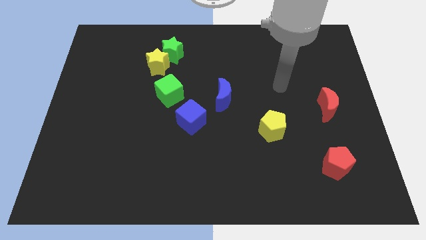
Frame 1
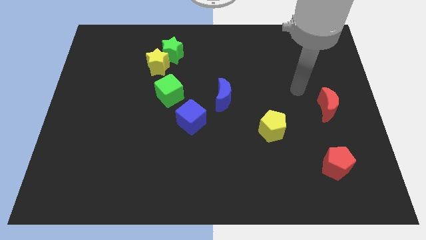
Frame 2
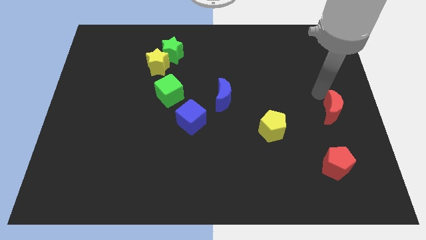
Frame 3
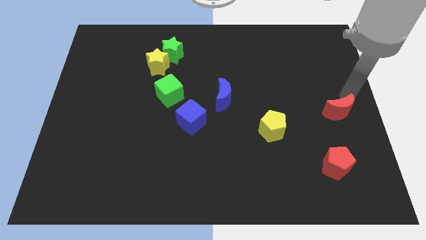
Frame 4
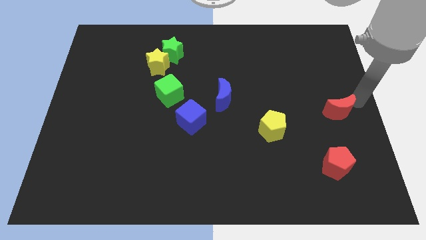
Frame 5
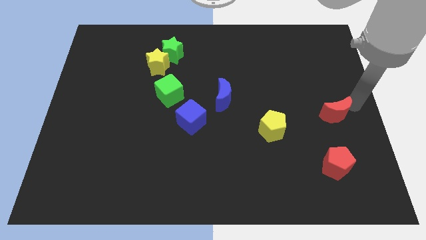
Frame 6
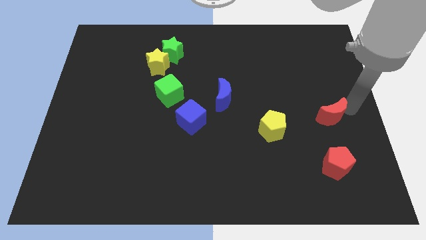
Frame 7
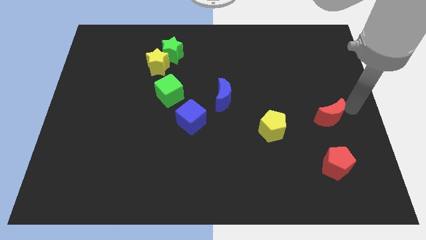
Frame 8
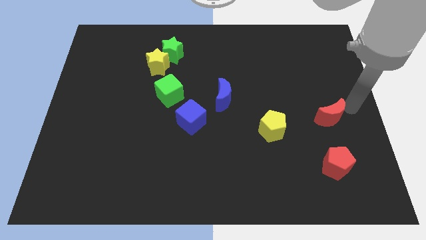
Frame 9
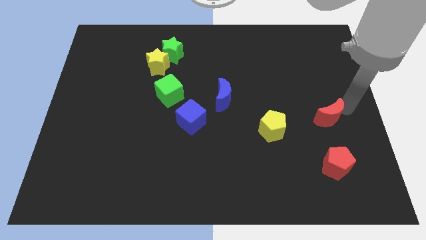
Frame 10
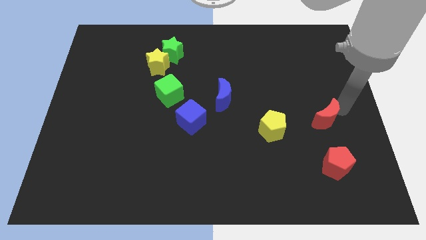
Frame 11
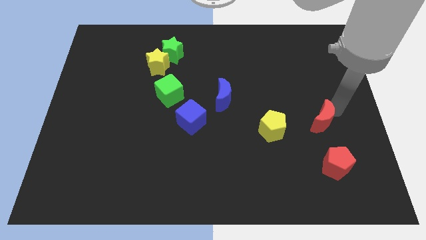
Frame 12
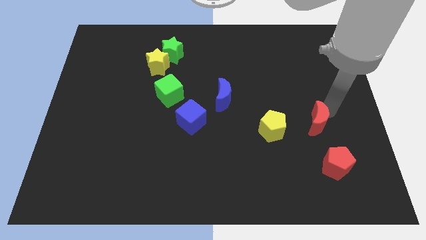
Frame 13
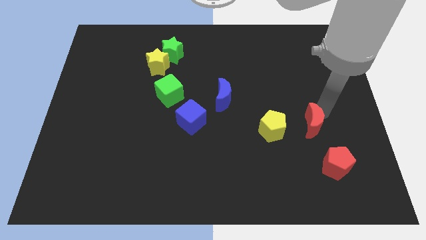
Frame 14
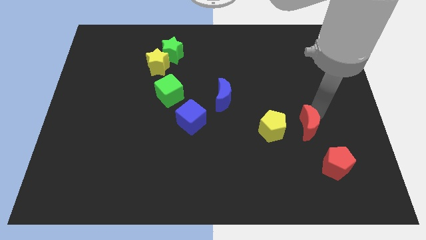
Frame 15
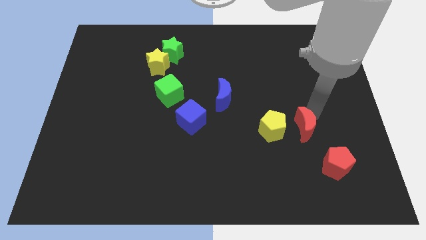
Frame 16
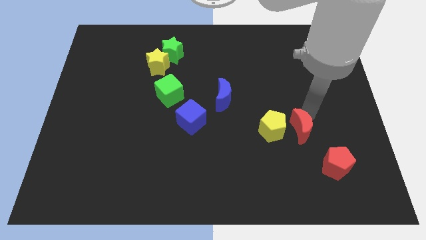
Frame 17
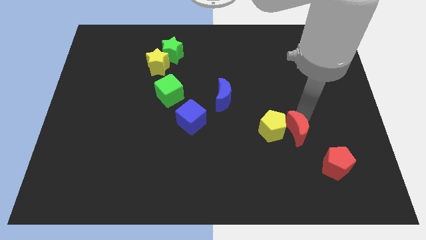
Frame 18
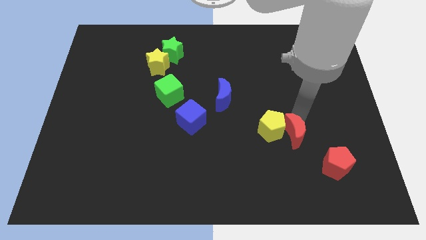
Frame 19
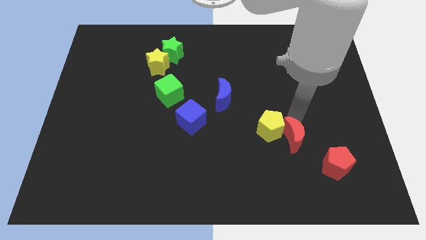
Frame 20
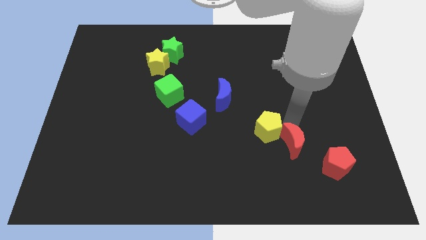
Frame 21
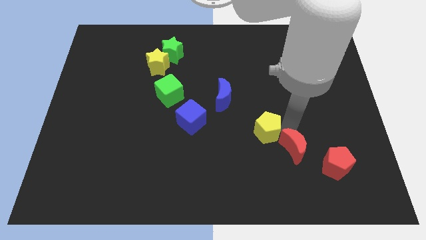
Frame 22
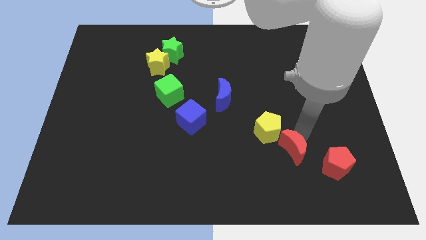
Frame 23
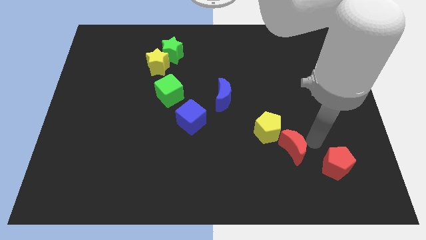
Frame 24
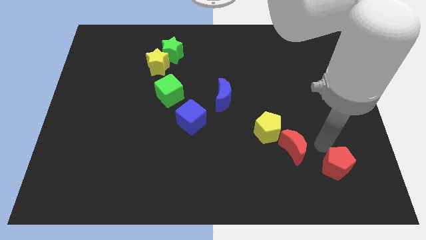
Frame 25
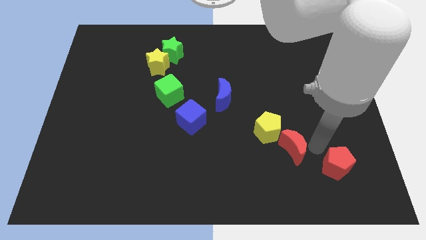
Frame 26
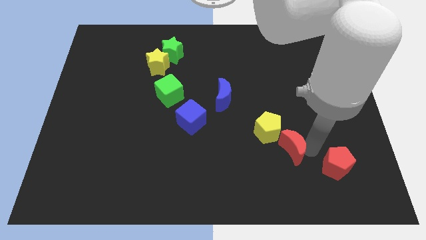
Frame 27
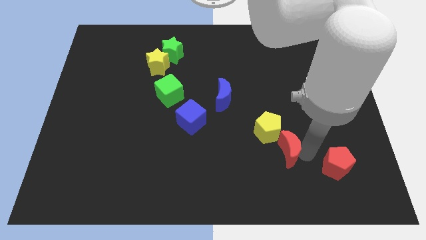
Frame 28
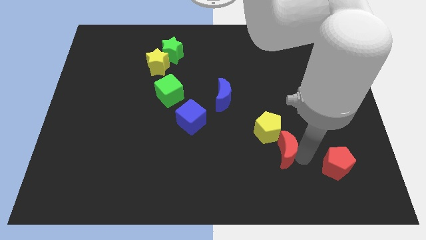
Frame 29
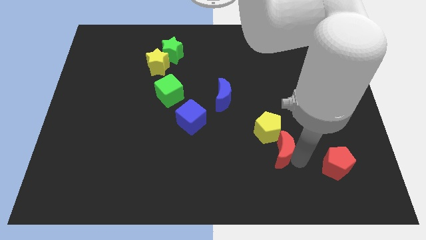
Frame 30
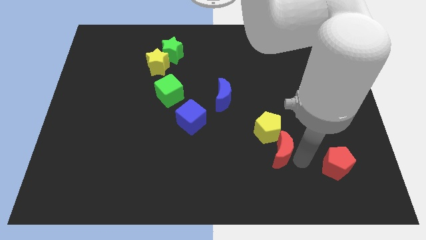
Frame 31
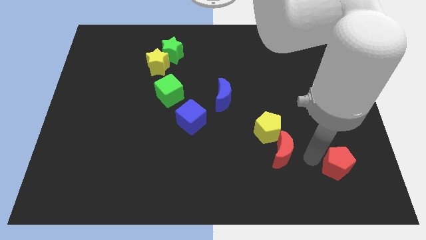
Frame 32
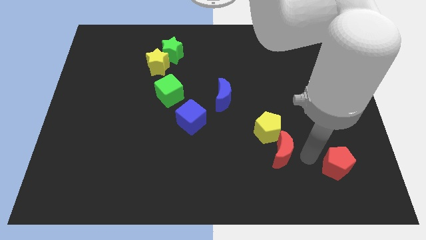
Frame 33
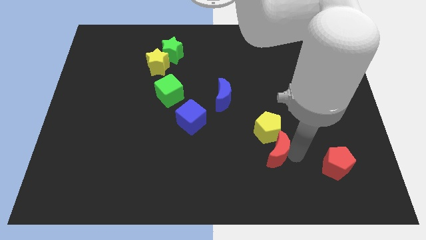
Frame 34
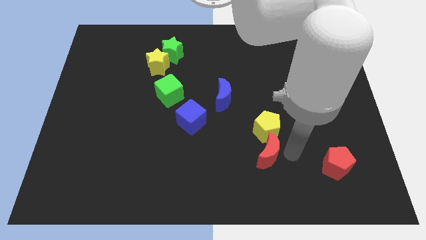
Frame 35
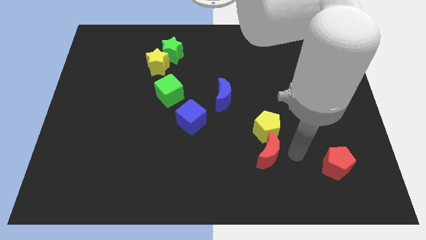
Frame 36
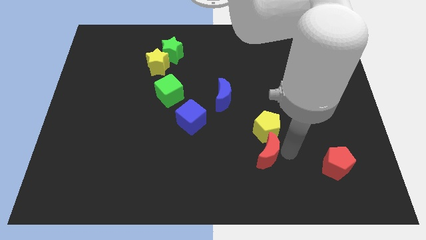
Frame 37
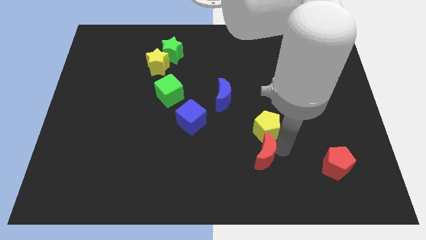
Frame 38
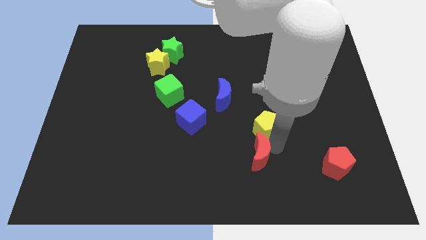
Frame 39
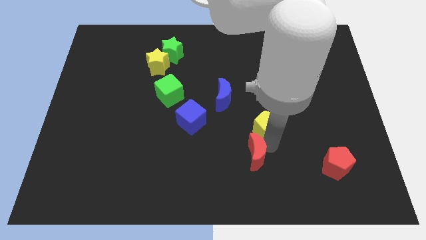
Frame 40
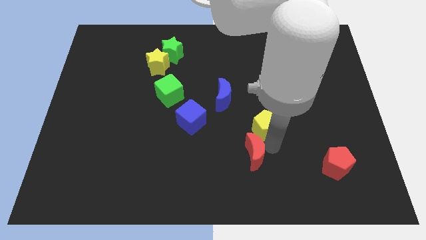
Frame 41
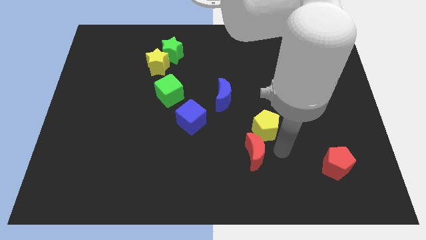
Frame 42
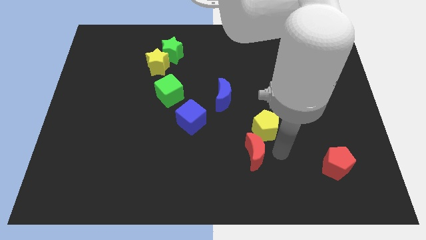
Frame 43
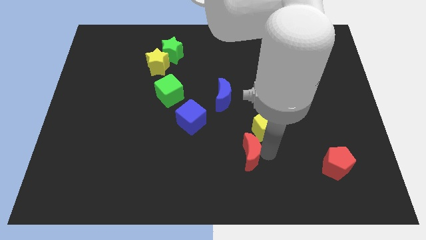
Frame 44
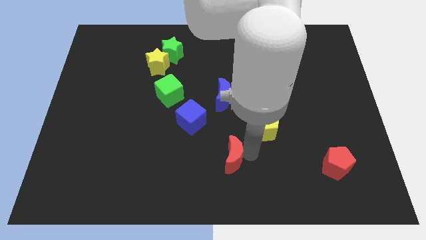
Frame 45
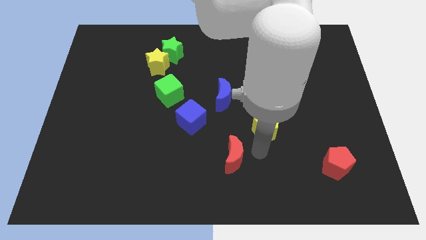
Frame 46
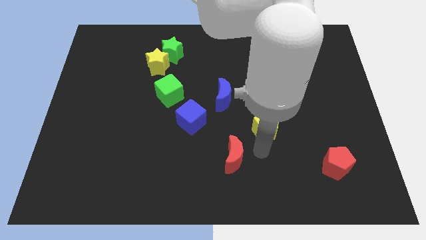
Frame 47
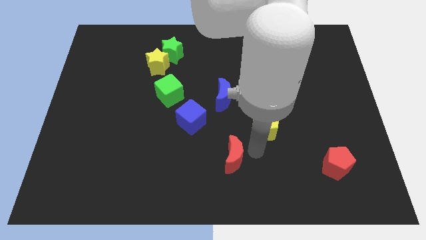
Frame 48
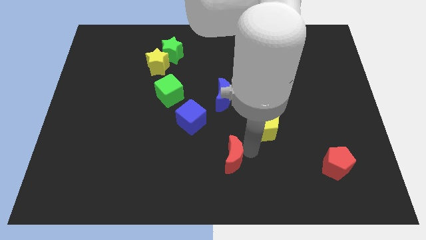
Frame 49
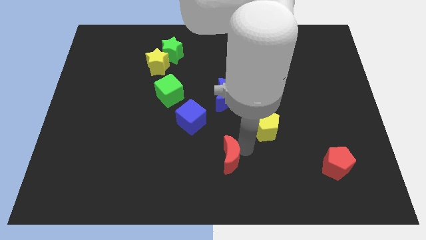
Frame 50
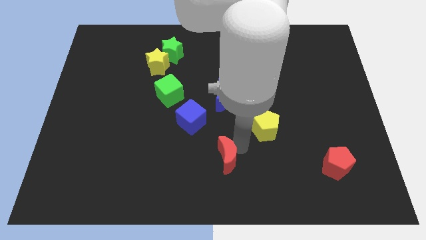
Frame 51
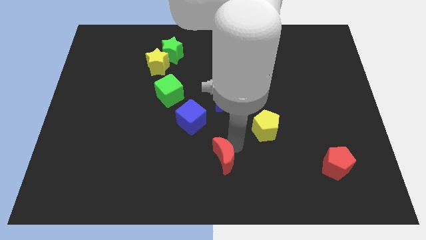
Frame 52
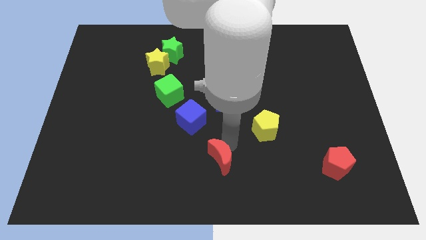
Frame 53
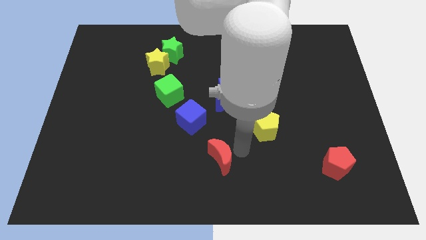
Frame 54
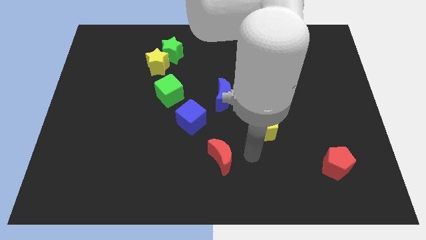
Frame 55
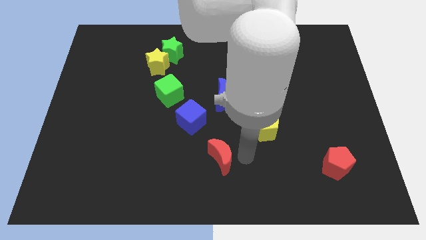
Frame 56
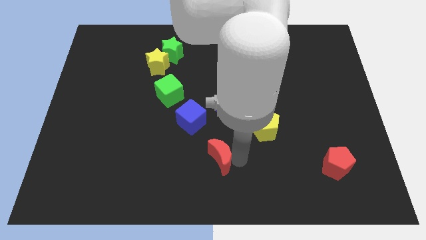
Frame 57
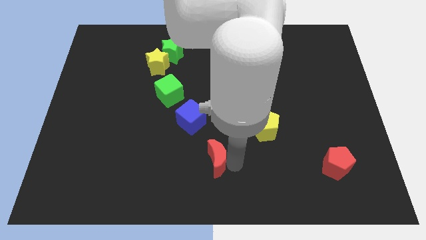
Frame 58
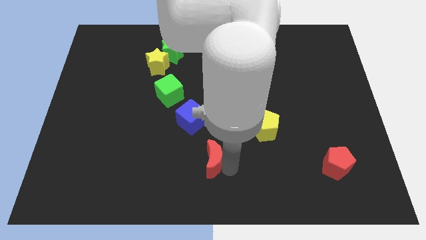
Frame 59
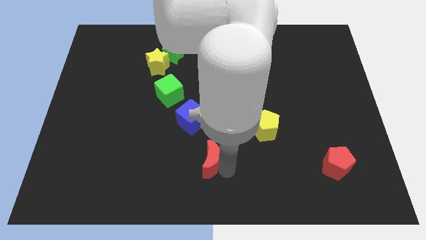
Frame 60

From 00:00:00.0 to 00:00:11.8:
push the red moon to the bottom of the blue cube

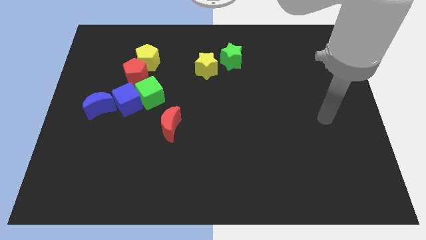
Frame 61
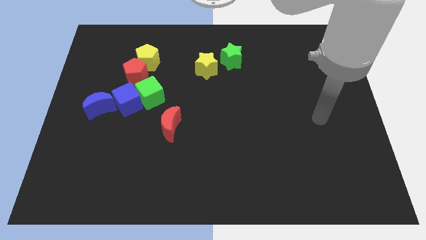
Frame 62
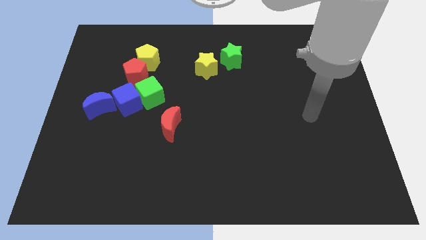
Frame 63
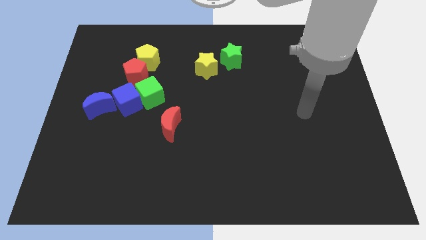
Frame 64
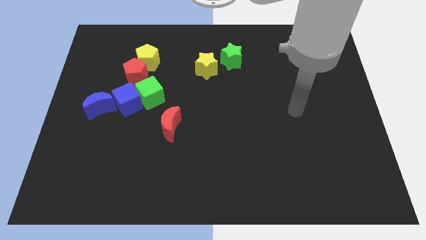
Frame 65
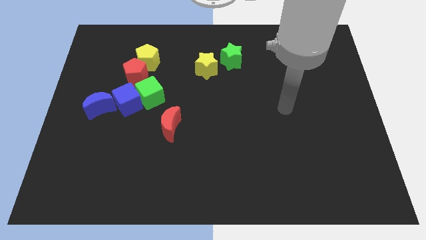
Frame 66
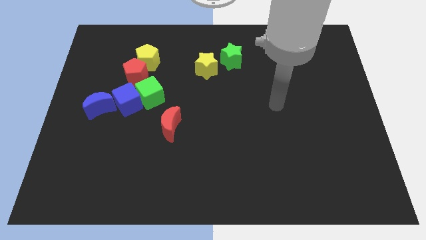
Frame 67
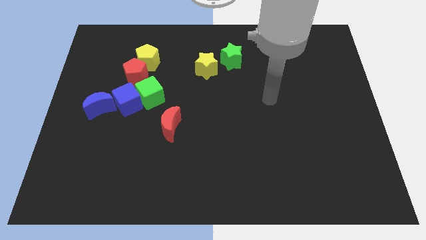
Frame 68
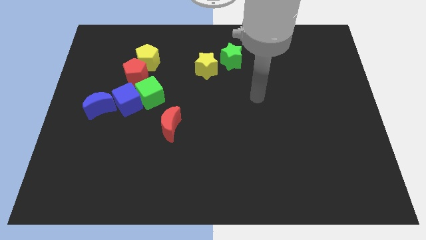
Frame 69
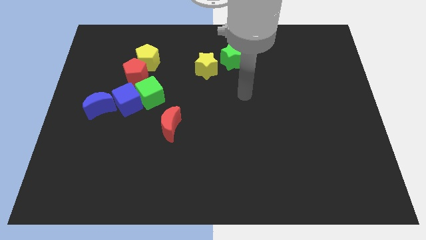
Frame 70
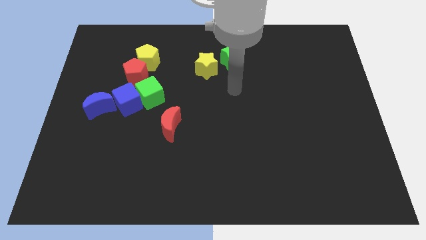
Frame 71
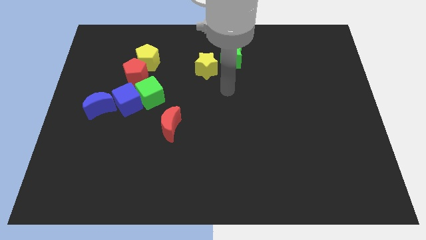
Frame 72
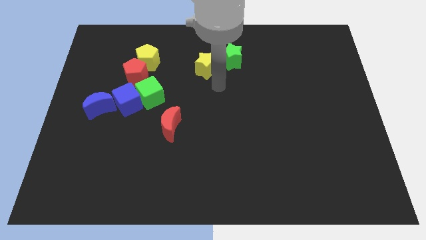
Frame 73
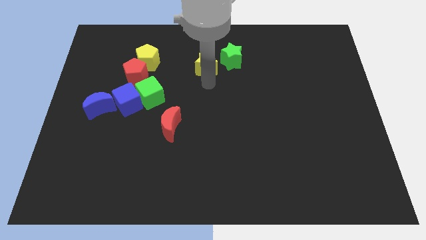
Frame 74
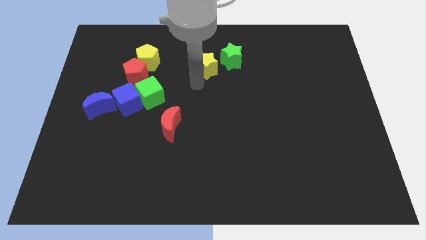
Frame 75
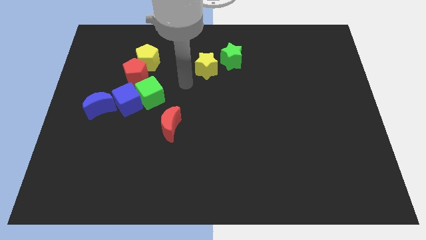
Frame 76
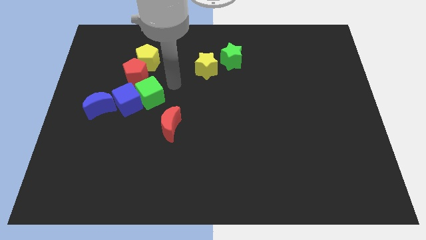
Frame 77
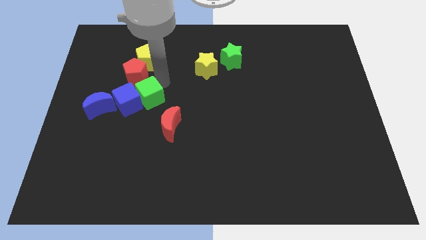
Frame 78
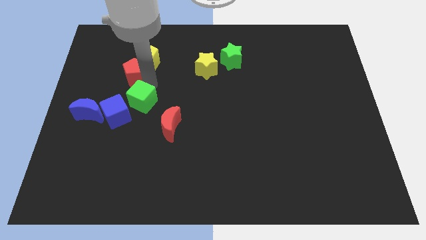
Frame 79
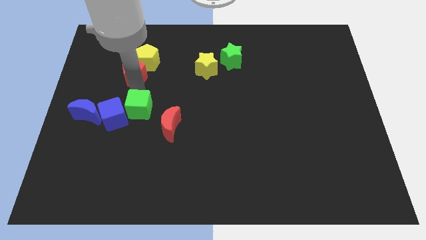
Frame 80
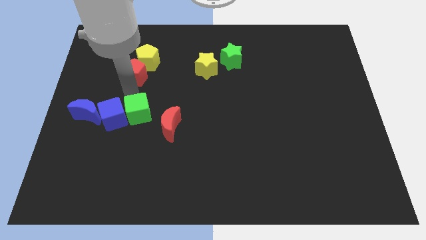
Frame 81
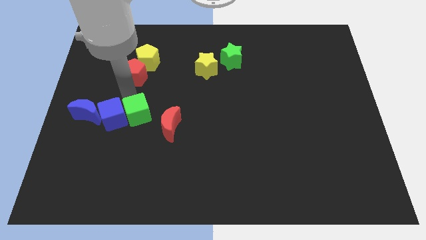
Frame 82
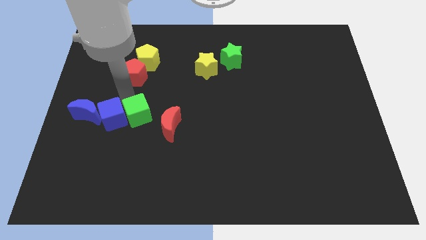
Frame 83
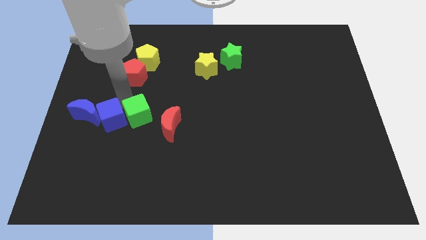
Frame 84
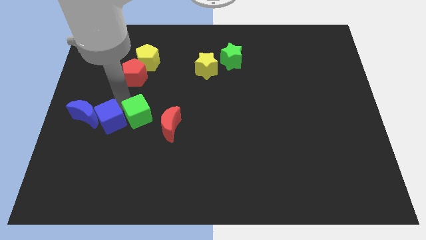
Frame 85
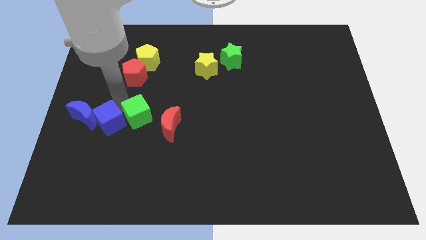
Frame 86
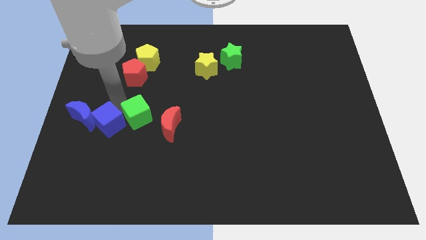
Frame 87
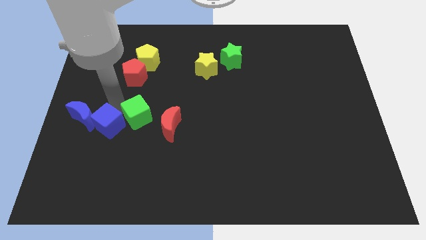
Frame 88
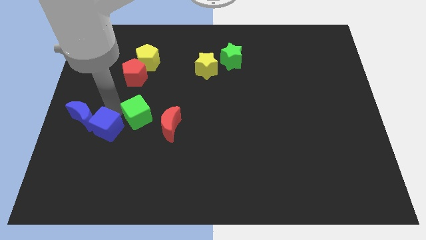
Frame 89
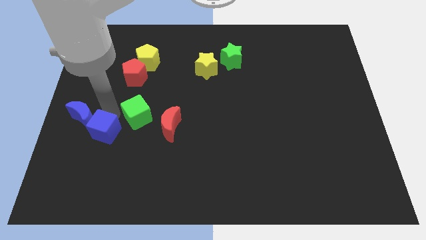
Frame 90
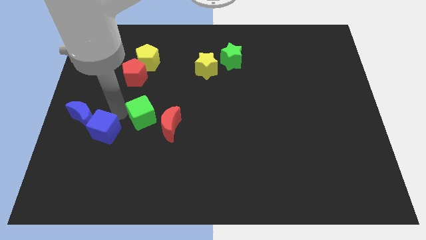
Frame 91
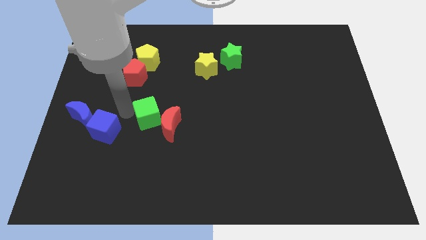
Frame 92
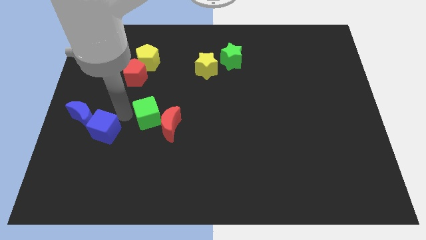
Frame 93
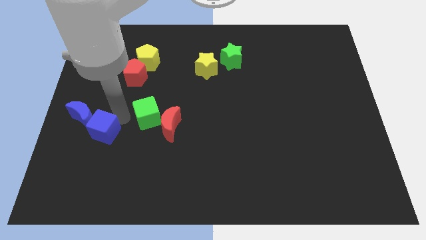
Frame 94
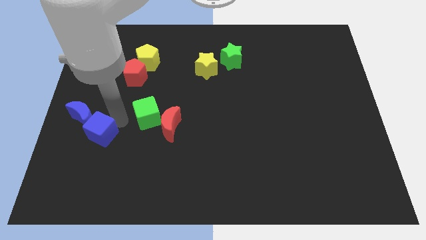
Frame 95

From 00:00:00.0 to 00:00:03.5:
slide the blue cube below the blue moon
